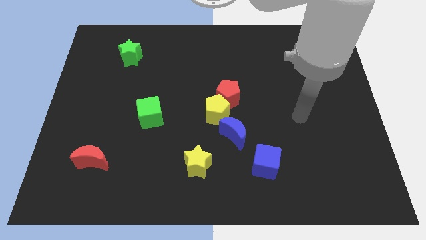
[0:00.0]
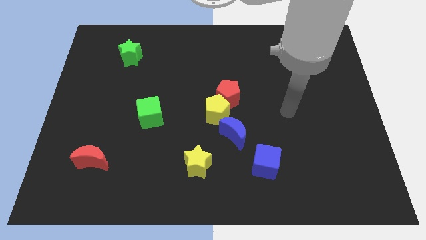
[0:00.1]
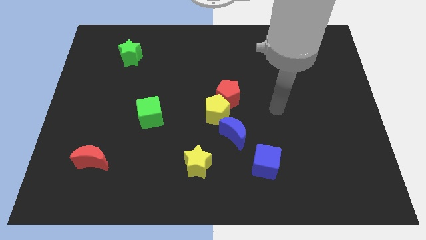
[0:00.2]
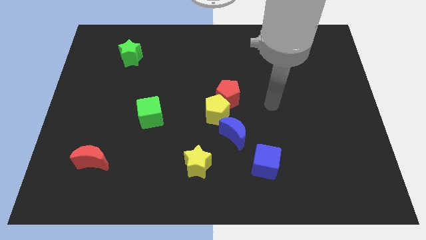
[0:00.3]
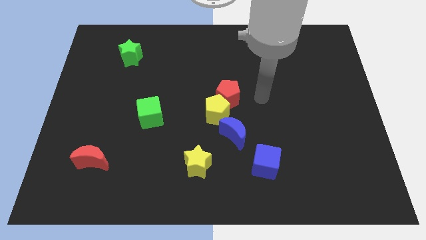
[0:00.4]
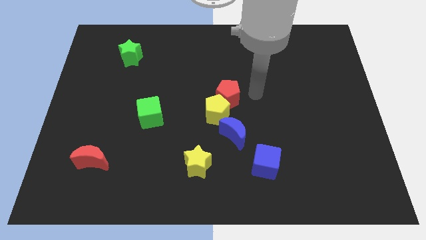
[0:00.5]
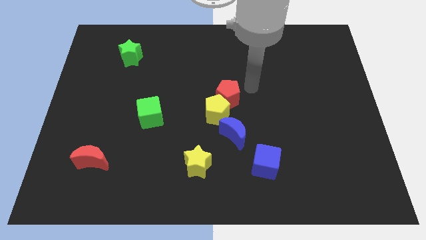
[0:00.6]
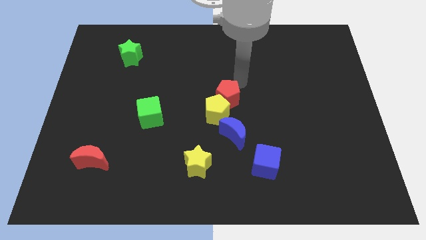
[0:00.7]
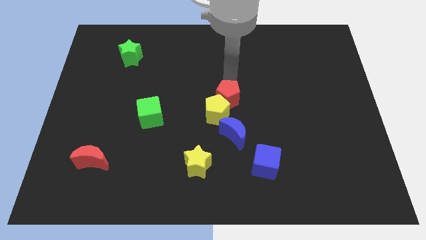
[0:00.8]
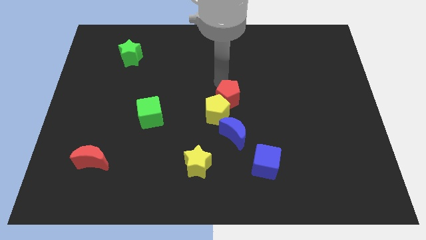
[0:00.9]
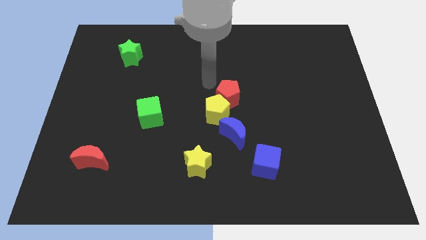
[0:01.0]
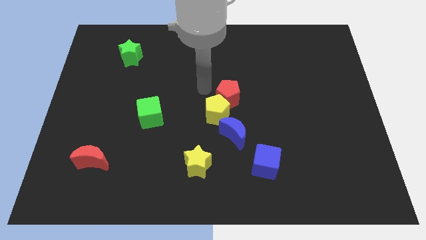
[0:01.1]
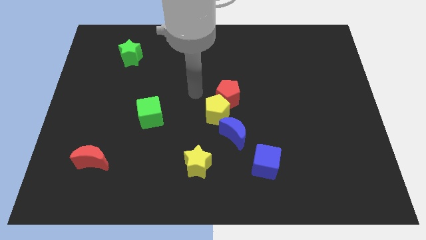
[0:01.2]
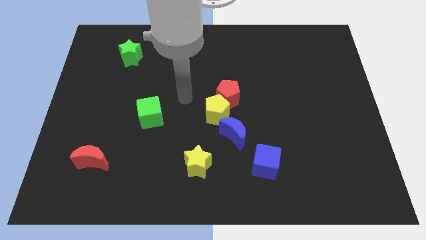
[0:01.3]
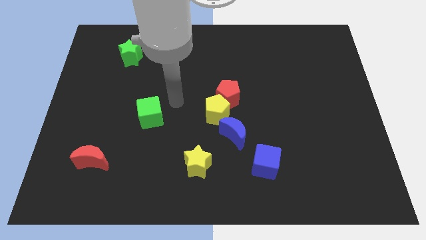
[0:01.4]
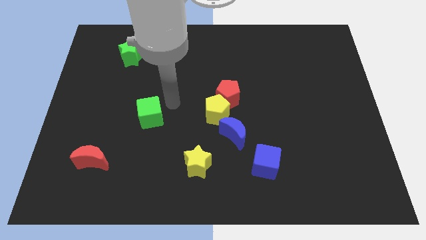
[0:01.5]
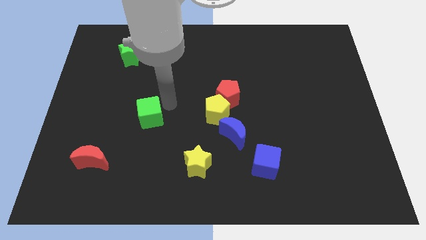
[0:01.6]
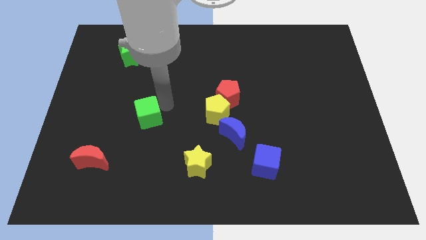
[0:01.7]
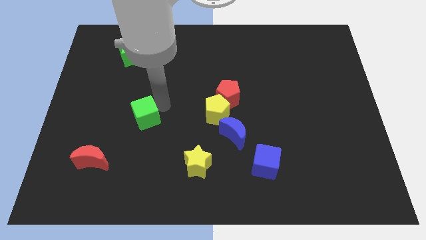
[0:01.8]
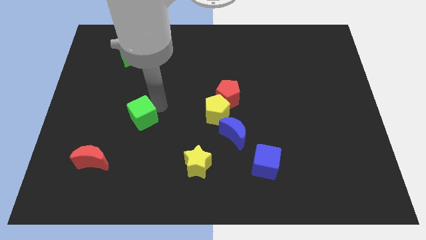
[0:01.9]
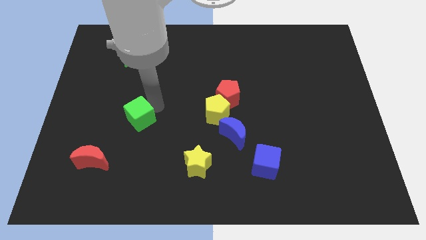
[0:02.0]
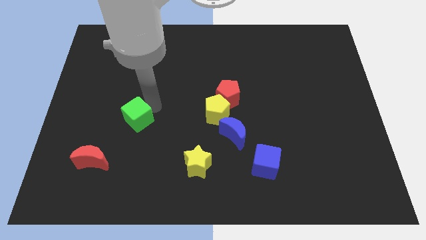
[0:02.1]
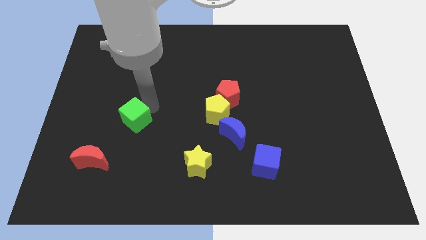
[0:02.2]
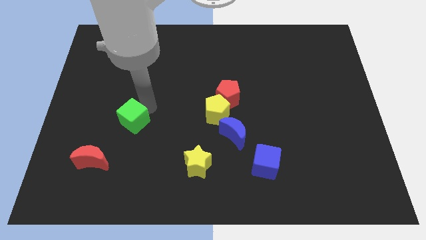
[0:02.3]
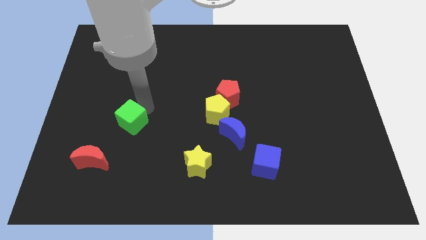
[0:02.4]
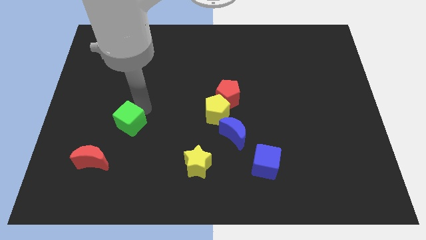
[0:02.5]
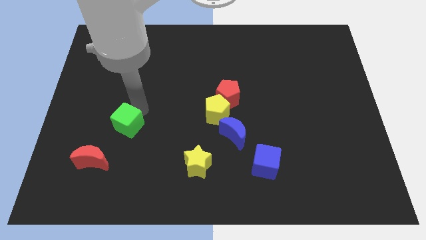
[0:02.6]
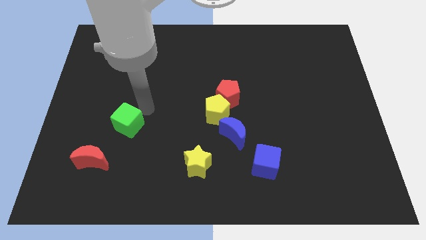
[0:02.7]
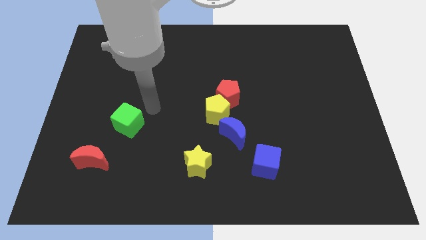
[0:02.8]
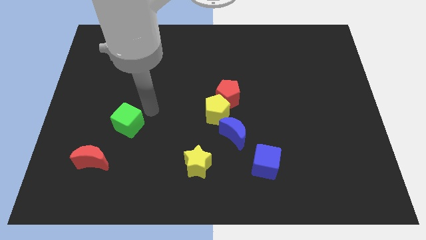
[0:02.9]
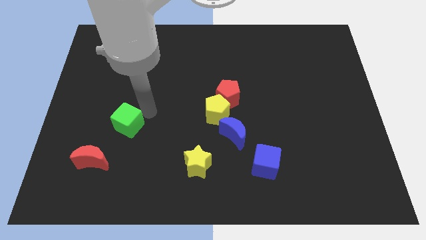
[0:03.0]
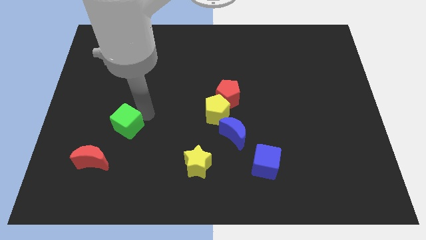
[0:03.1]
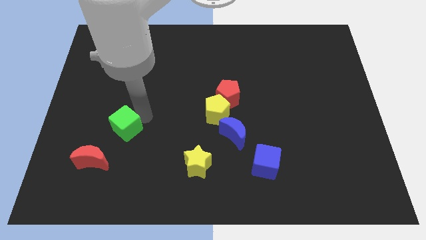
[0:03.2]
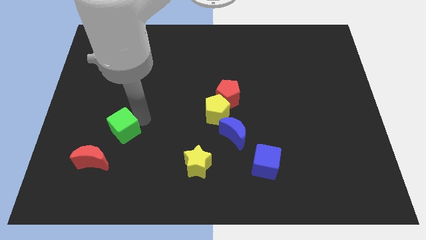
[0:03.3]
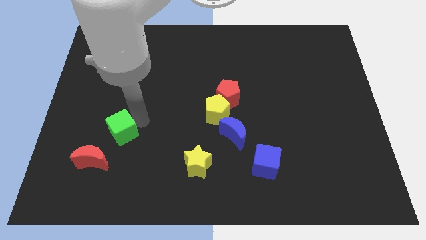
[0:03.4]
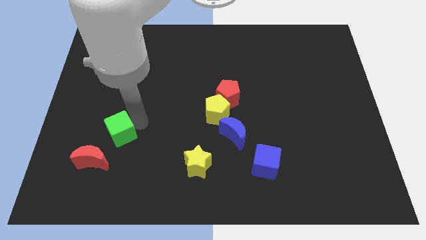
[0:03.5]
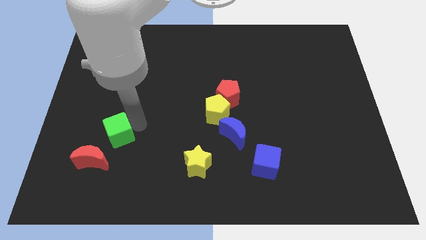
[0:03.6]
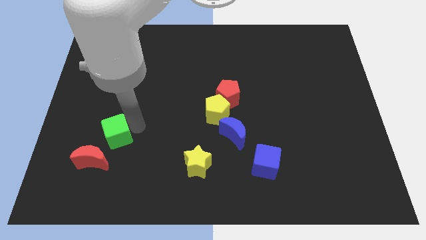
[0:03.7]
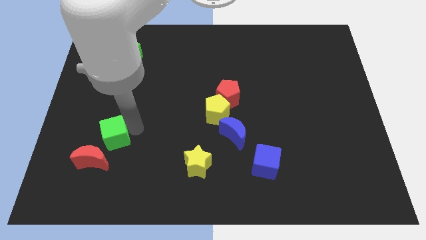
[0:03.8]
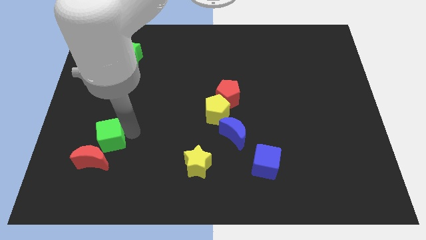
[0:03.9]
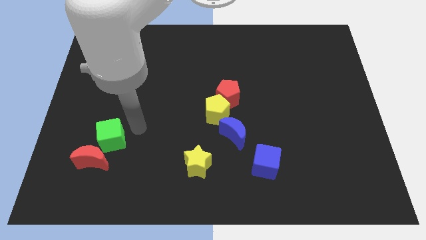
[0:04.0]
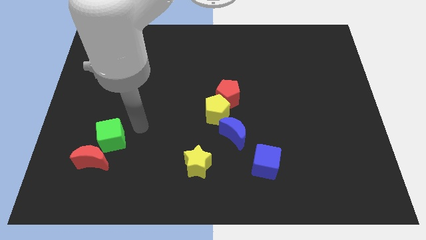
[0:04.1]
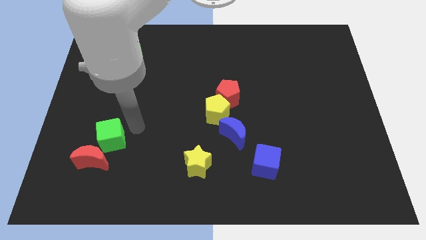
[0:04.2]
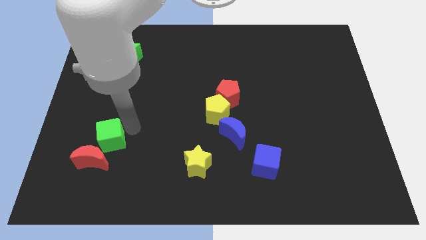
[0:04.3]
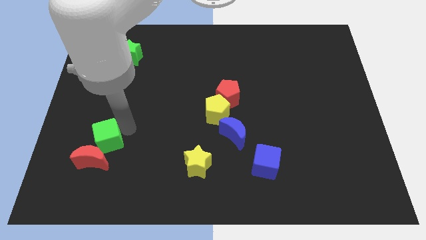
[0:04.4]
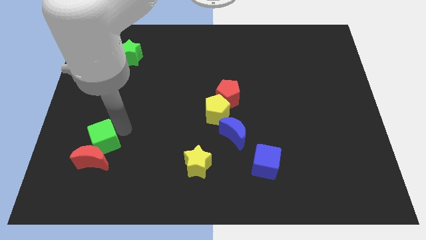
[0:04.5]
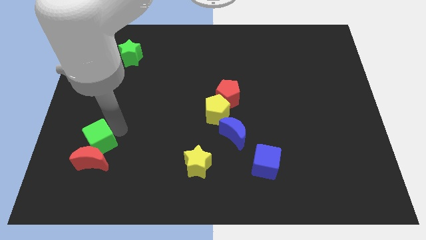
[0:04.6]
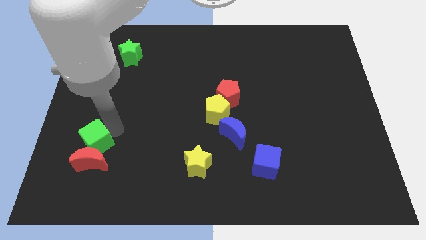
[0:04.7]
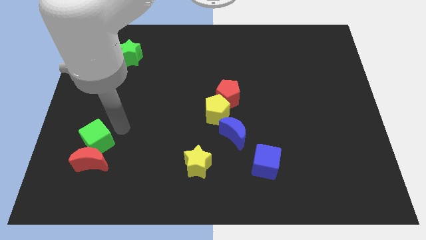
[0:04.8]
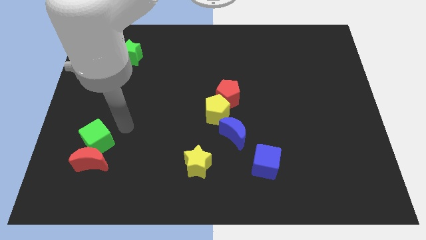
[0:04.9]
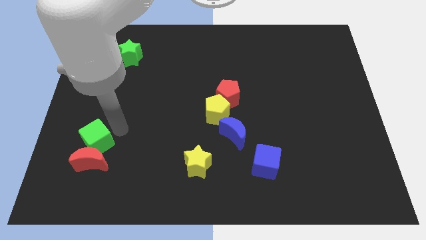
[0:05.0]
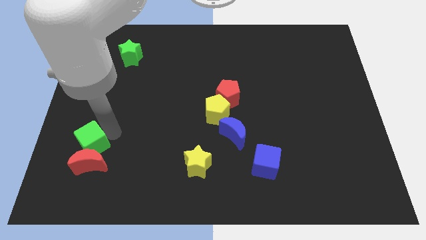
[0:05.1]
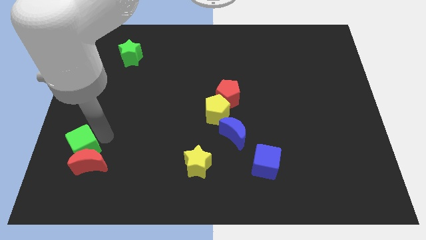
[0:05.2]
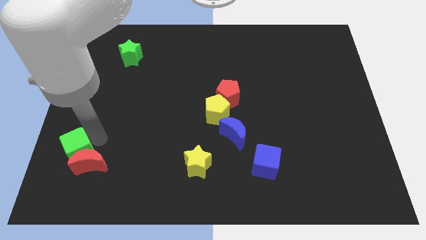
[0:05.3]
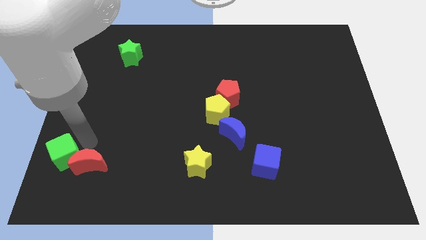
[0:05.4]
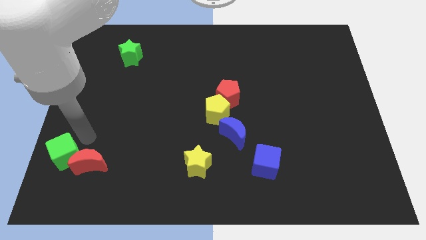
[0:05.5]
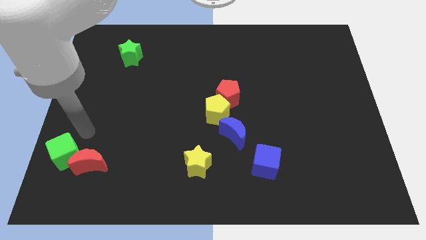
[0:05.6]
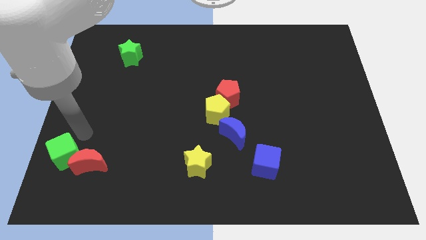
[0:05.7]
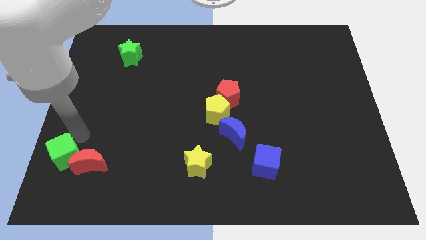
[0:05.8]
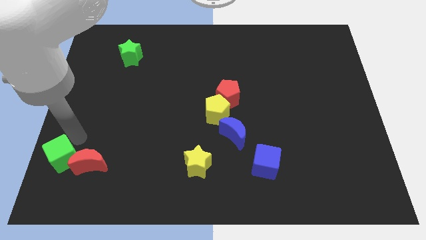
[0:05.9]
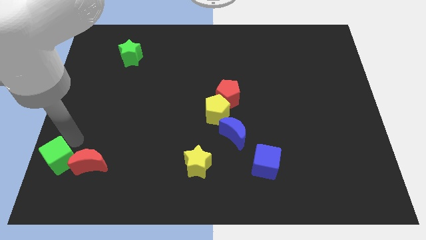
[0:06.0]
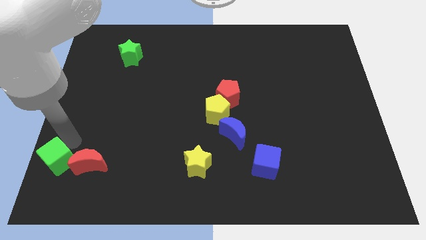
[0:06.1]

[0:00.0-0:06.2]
put the green cube to the bottom left of the board

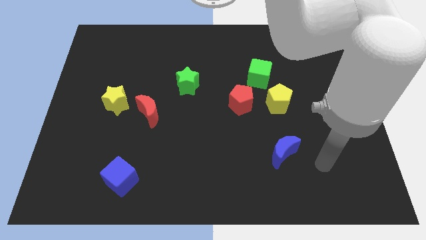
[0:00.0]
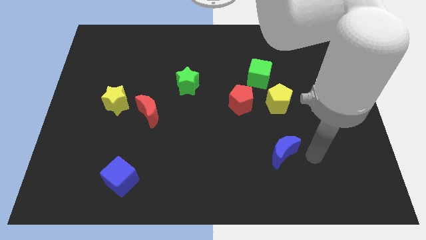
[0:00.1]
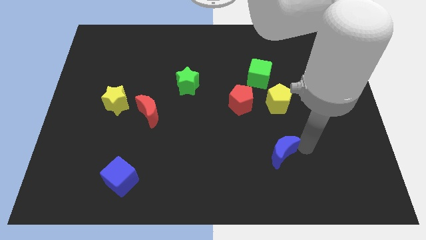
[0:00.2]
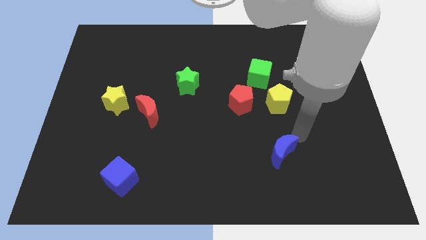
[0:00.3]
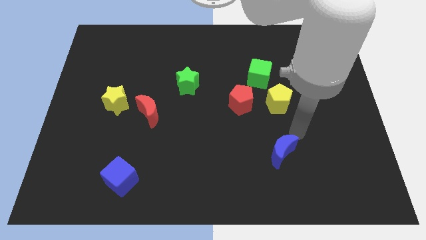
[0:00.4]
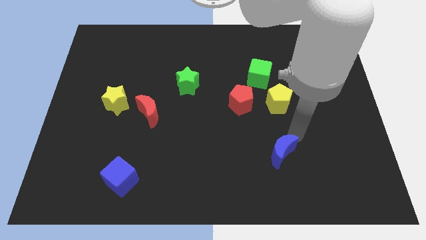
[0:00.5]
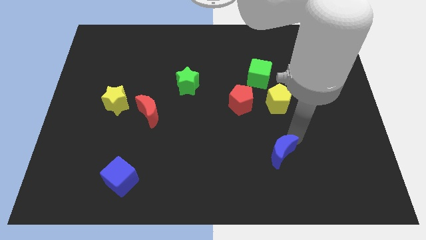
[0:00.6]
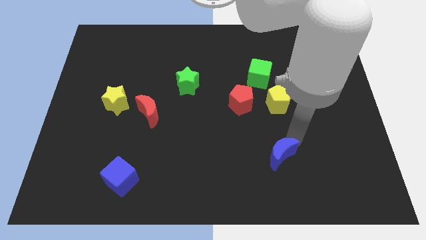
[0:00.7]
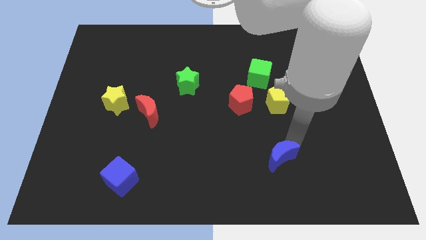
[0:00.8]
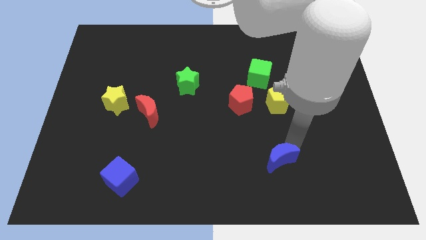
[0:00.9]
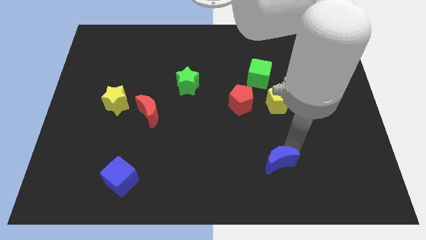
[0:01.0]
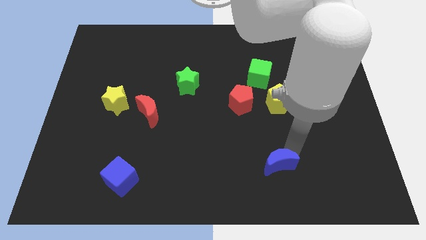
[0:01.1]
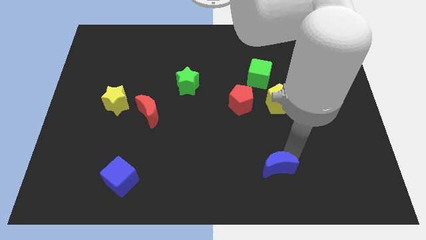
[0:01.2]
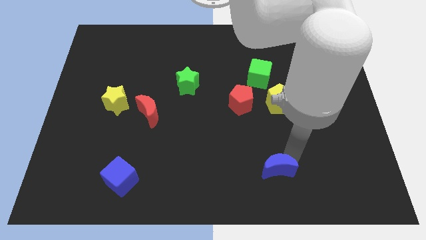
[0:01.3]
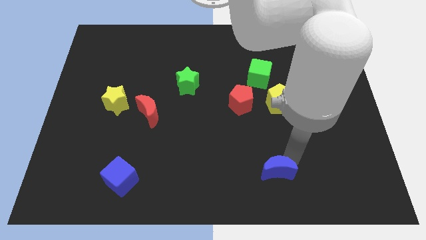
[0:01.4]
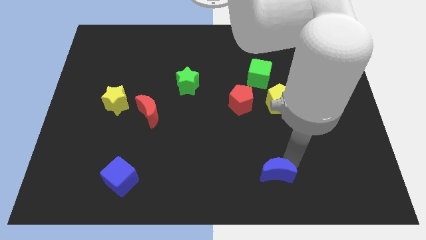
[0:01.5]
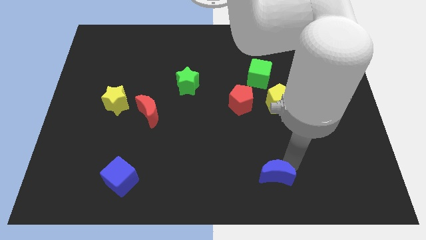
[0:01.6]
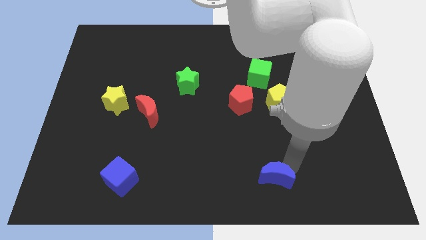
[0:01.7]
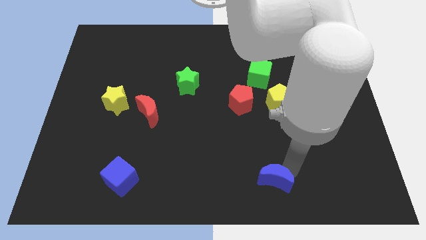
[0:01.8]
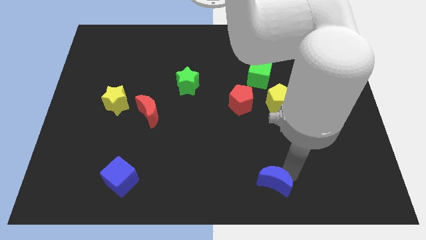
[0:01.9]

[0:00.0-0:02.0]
move the blue moon to the bottom
